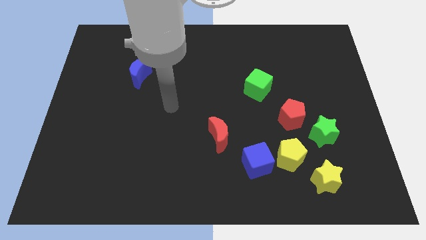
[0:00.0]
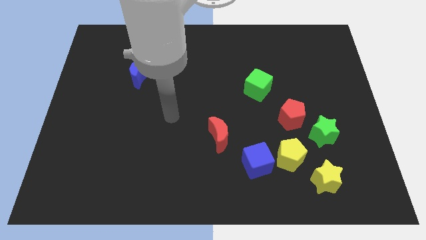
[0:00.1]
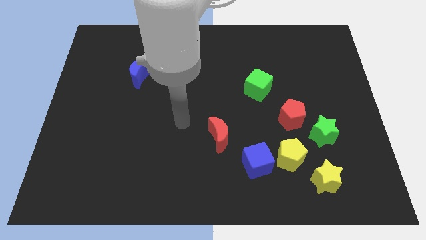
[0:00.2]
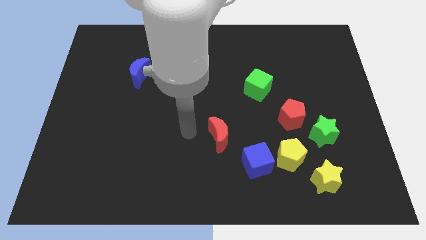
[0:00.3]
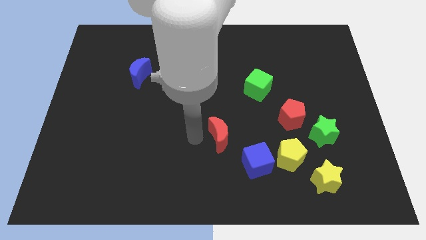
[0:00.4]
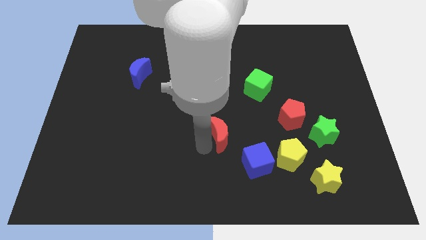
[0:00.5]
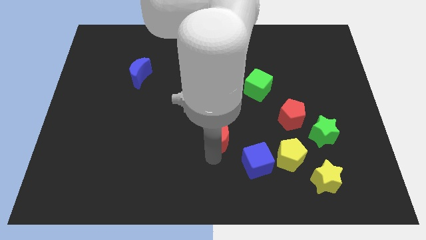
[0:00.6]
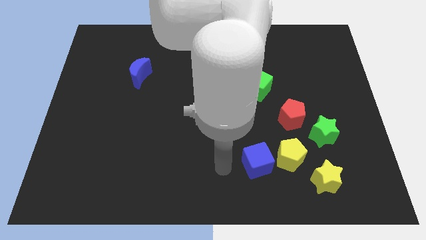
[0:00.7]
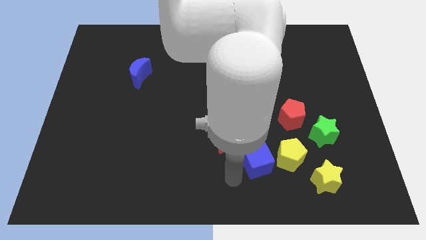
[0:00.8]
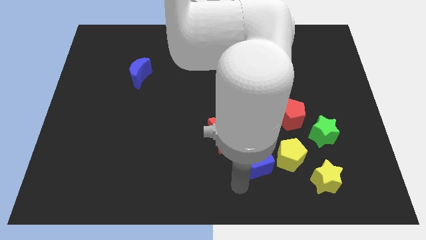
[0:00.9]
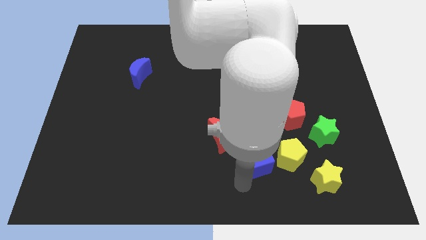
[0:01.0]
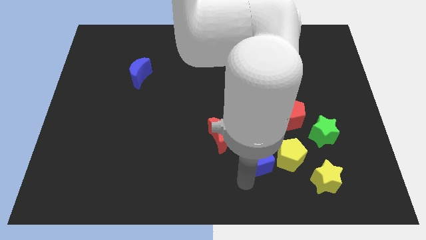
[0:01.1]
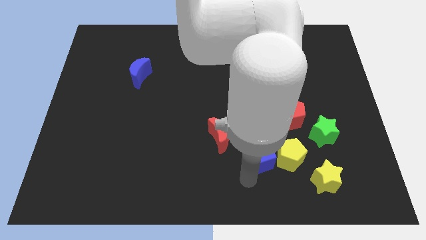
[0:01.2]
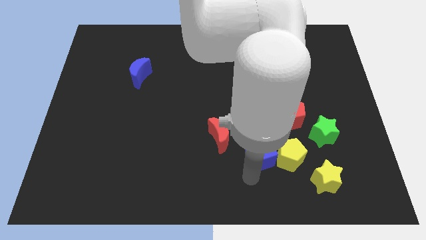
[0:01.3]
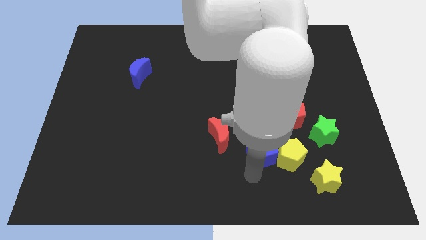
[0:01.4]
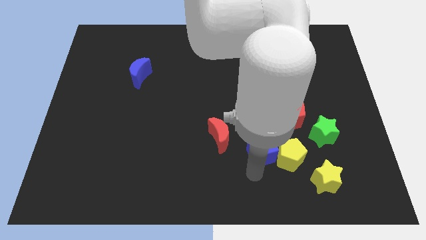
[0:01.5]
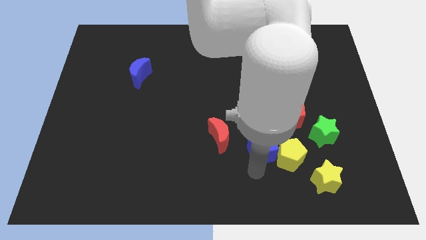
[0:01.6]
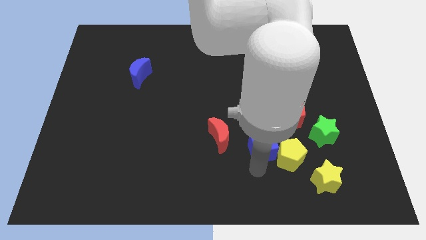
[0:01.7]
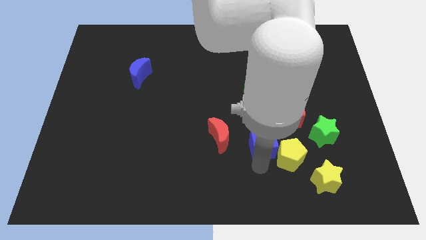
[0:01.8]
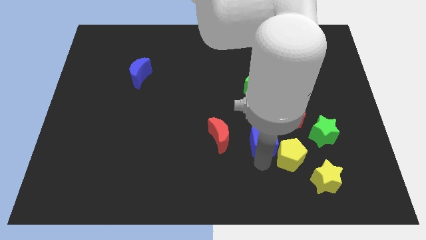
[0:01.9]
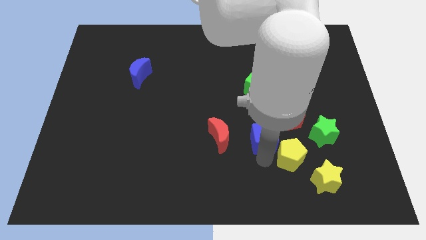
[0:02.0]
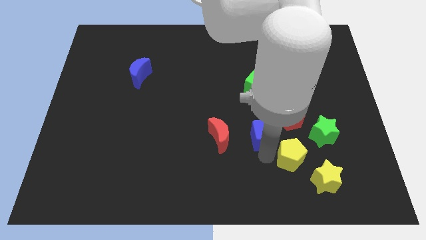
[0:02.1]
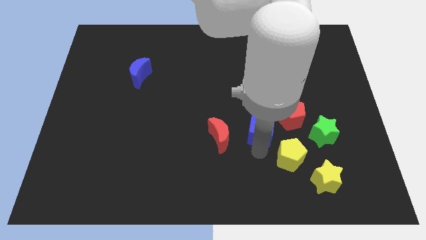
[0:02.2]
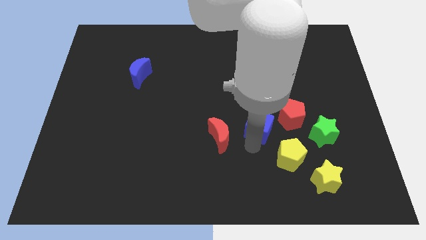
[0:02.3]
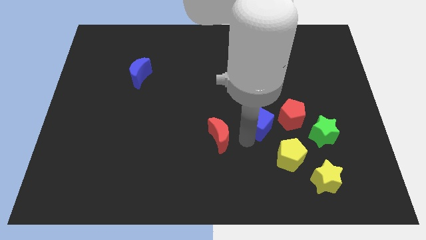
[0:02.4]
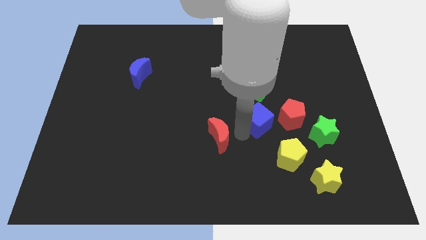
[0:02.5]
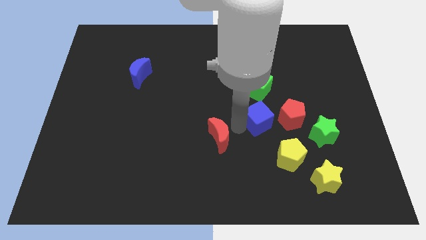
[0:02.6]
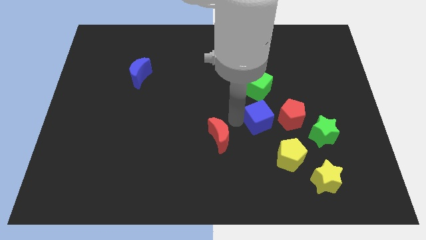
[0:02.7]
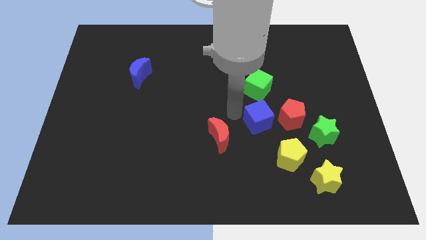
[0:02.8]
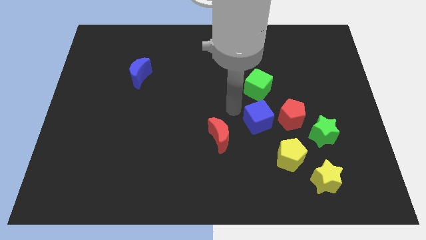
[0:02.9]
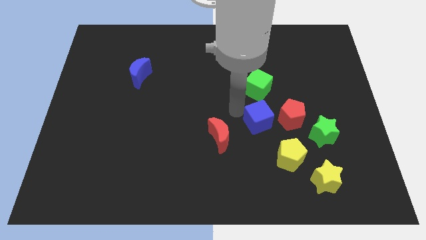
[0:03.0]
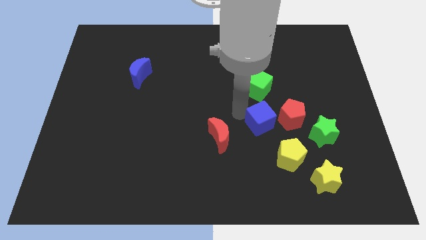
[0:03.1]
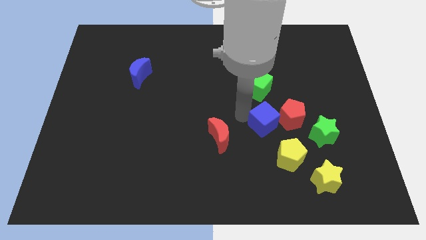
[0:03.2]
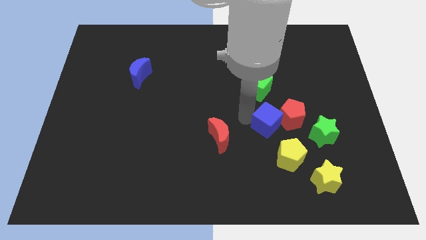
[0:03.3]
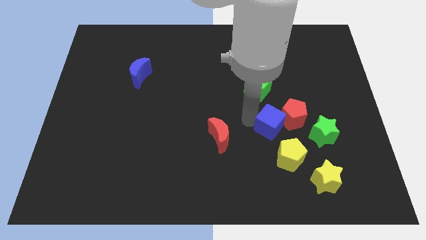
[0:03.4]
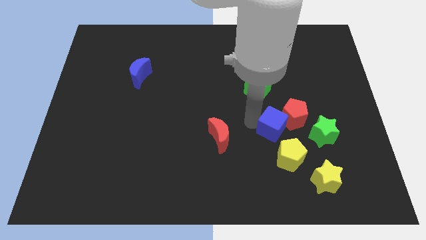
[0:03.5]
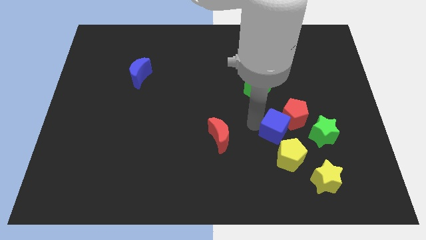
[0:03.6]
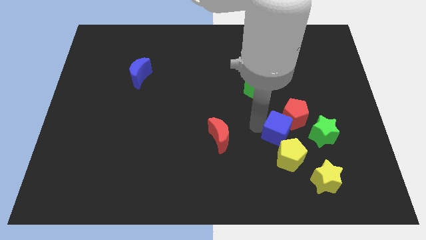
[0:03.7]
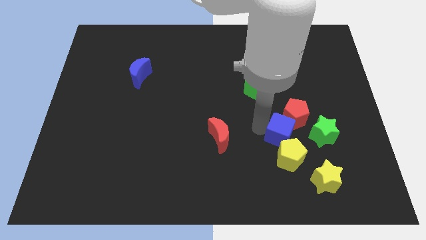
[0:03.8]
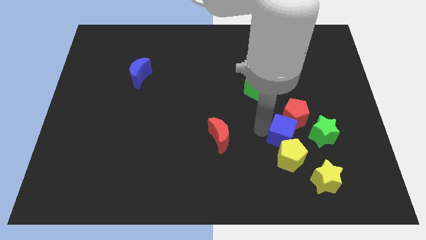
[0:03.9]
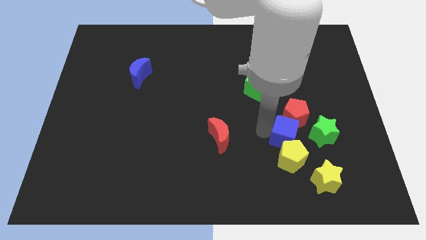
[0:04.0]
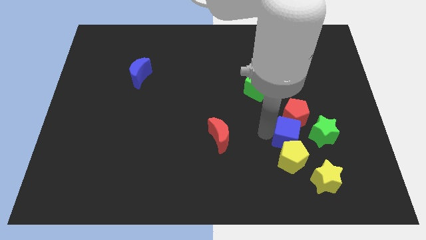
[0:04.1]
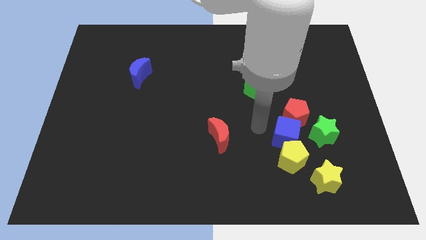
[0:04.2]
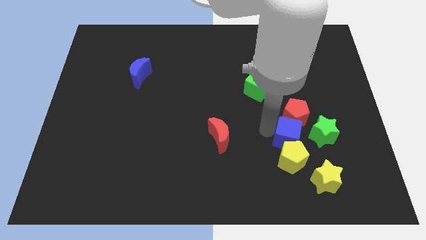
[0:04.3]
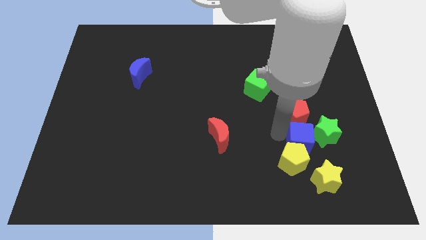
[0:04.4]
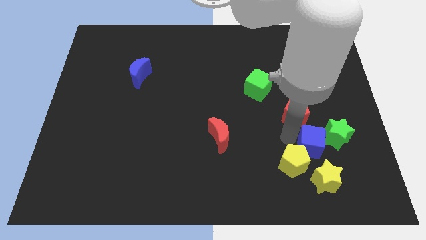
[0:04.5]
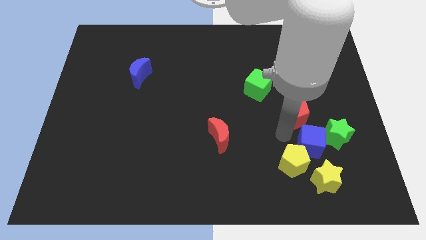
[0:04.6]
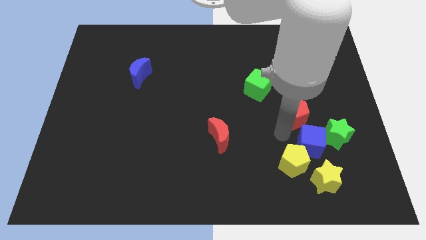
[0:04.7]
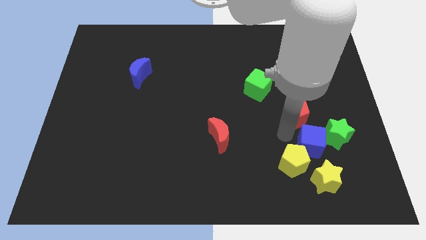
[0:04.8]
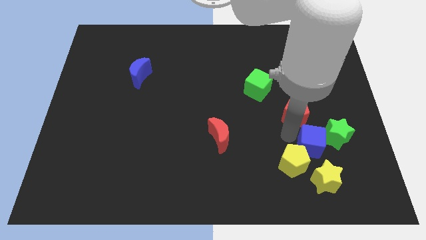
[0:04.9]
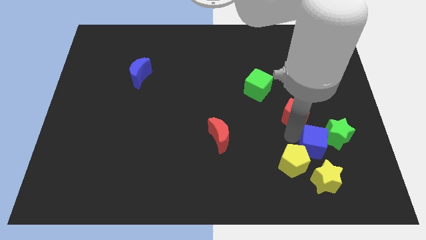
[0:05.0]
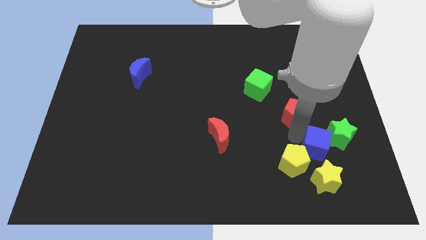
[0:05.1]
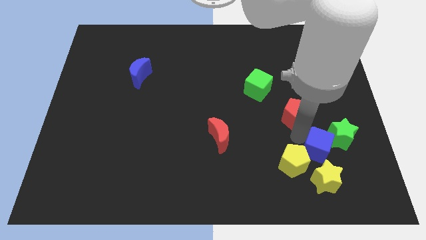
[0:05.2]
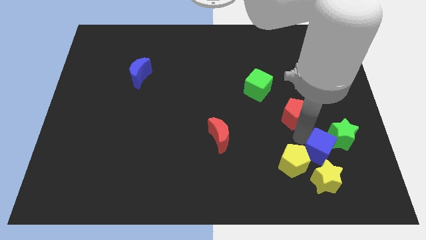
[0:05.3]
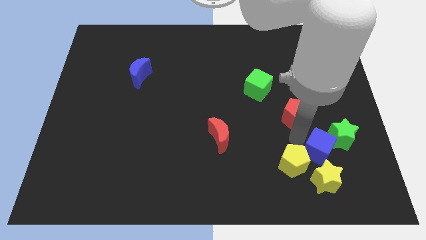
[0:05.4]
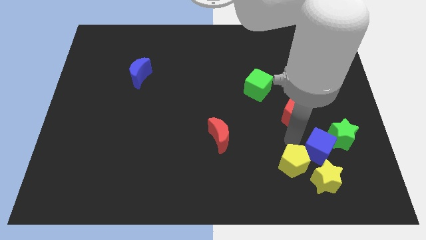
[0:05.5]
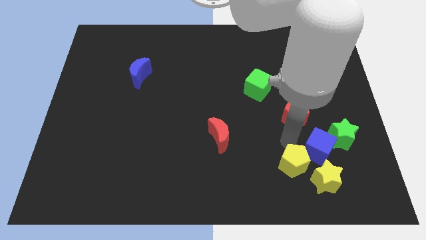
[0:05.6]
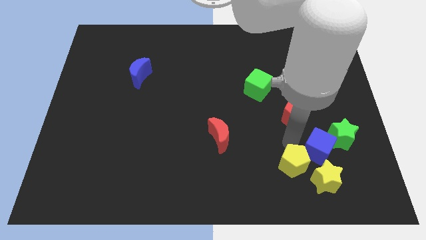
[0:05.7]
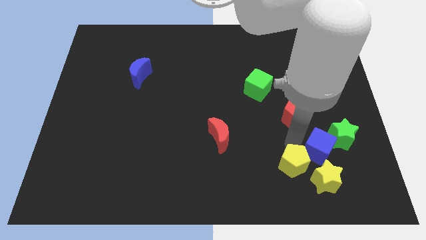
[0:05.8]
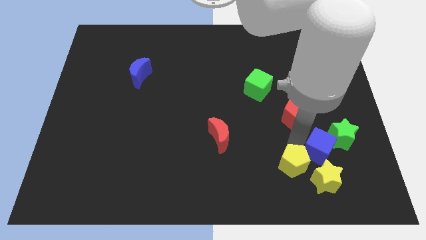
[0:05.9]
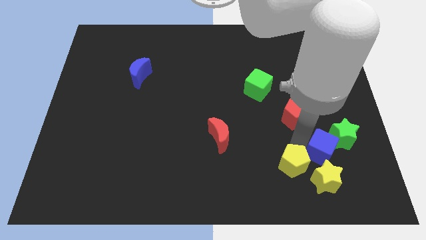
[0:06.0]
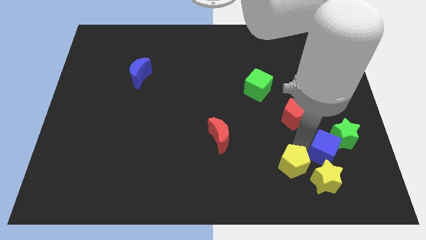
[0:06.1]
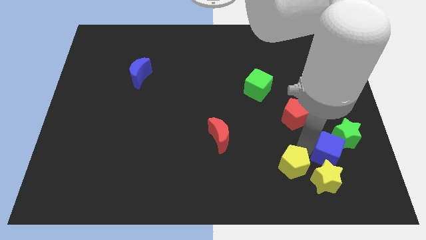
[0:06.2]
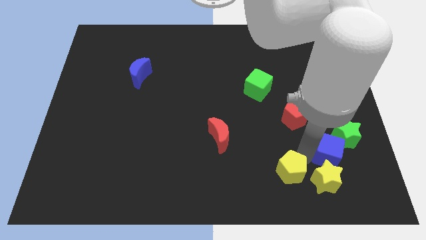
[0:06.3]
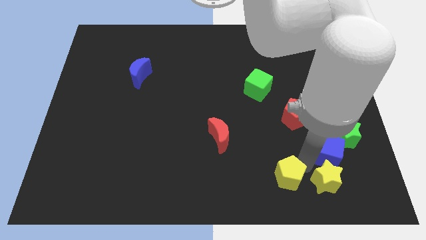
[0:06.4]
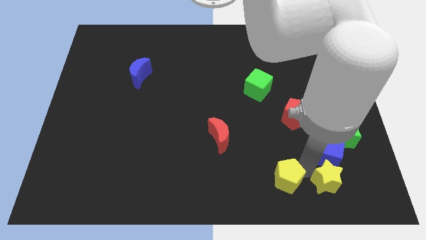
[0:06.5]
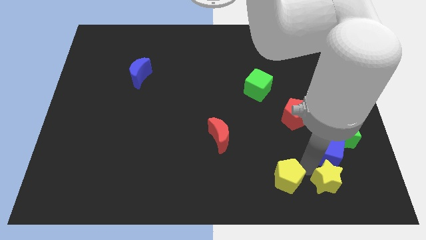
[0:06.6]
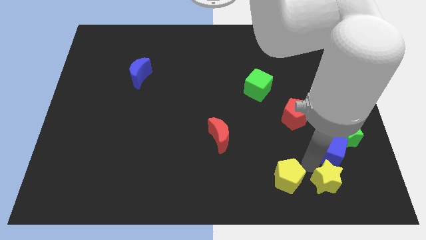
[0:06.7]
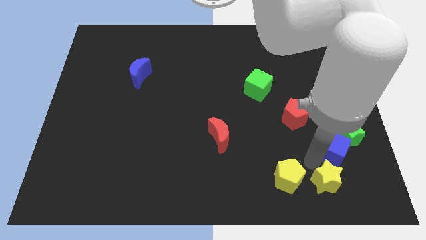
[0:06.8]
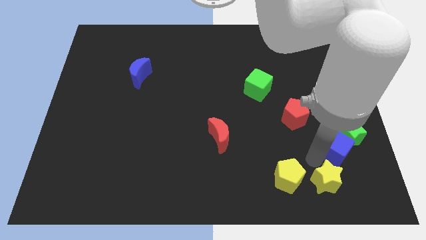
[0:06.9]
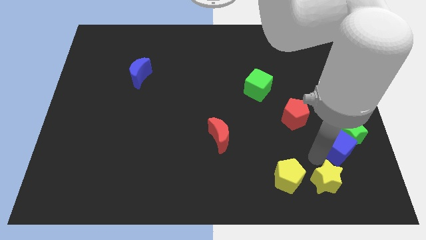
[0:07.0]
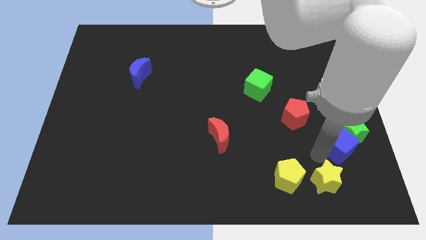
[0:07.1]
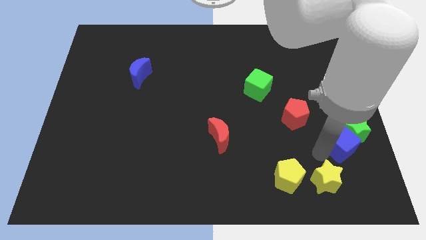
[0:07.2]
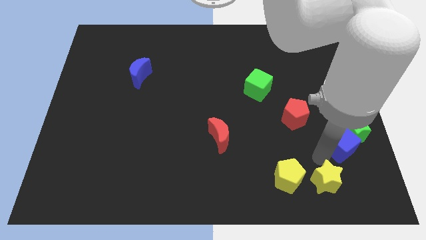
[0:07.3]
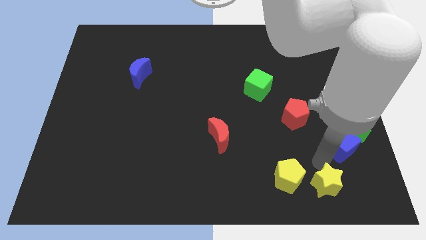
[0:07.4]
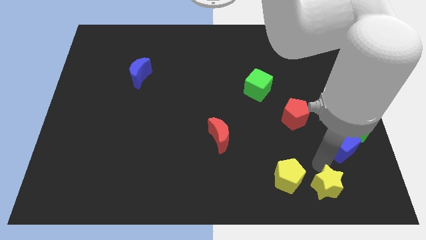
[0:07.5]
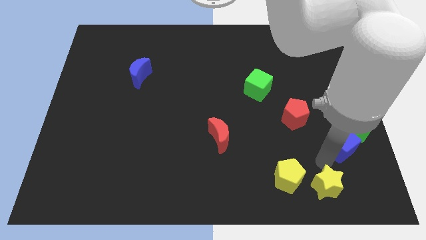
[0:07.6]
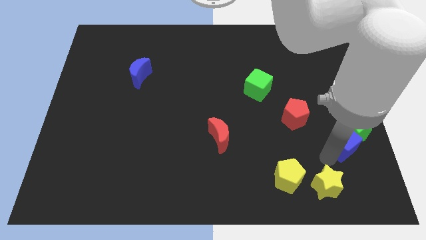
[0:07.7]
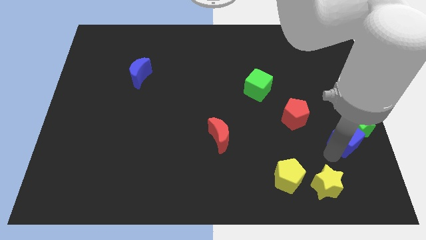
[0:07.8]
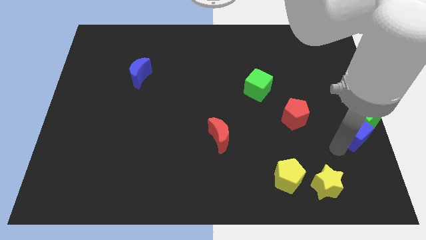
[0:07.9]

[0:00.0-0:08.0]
put the blue cube to the right side of the board
